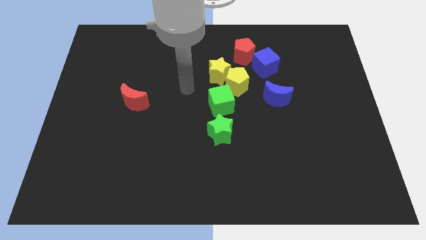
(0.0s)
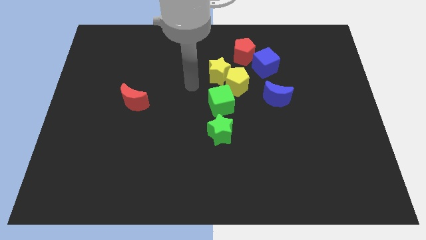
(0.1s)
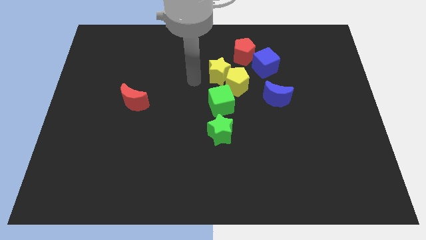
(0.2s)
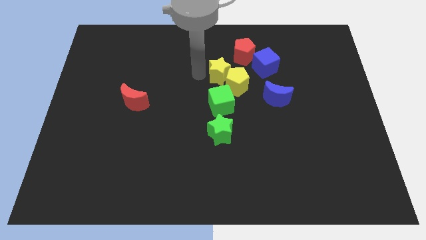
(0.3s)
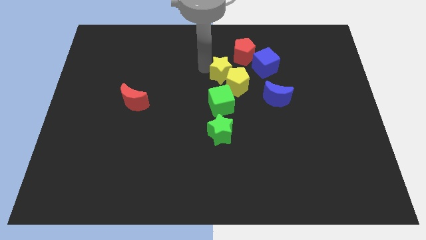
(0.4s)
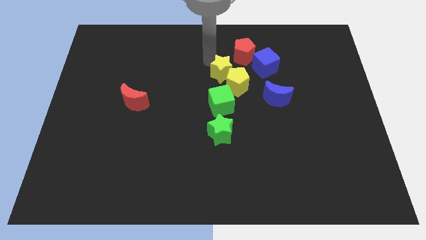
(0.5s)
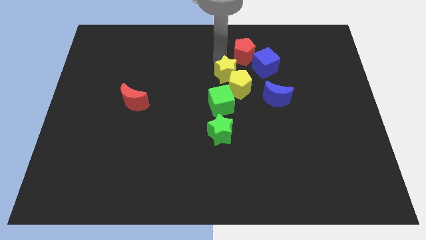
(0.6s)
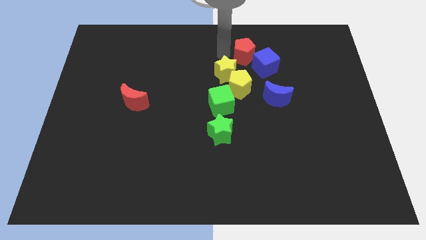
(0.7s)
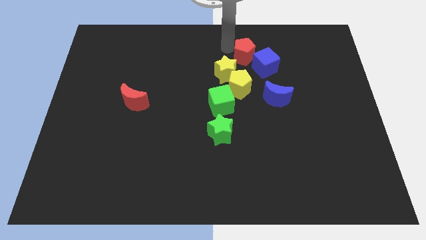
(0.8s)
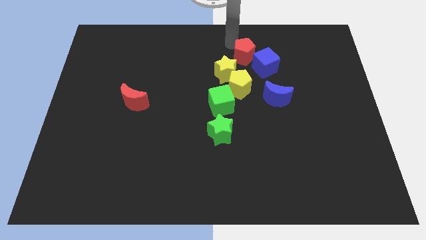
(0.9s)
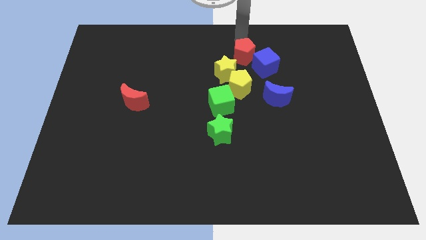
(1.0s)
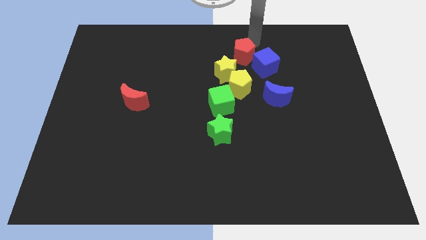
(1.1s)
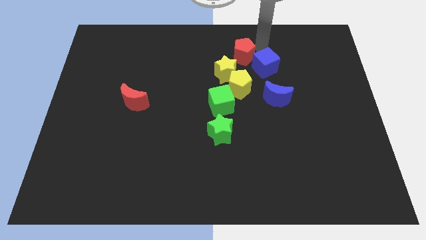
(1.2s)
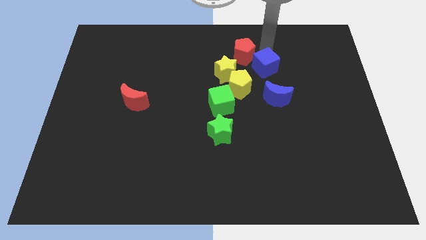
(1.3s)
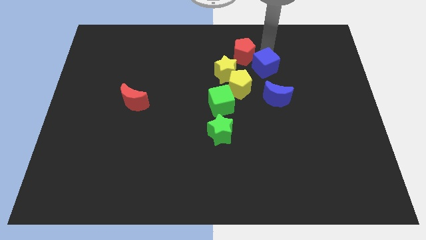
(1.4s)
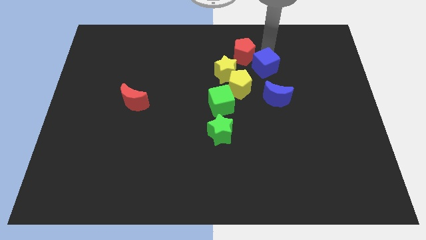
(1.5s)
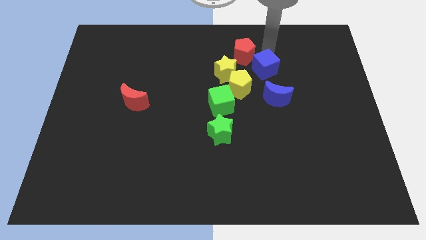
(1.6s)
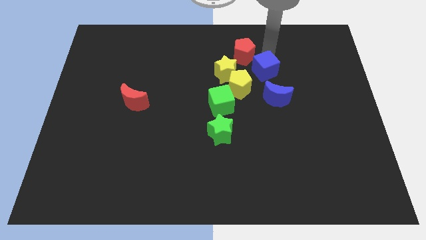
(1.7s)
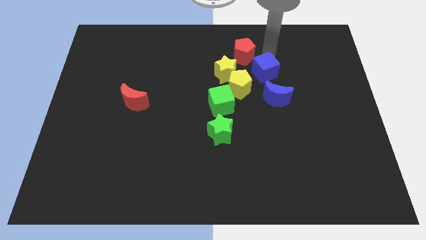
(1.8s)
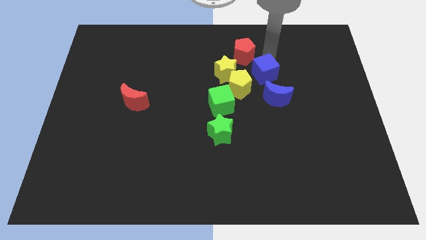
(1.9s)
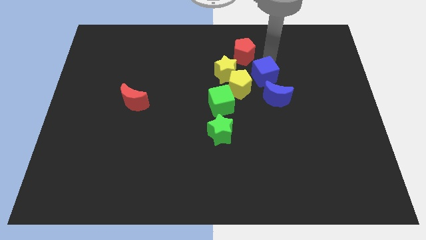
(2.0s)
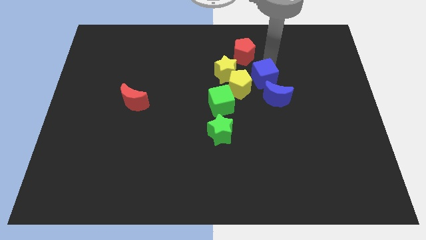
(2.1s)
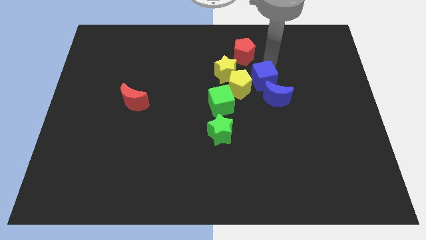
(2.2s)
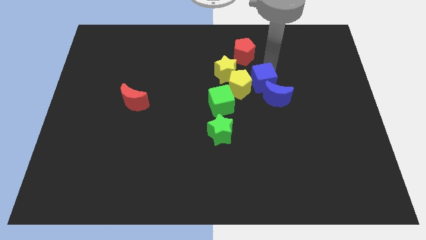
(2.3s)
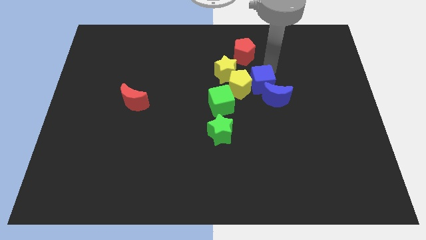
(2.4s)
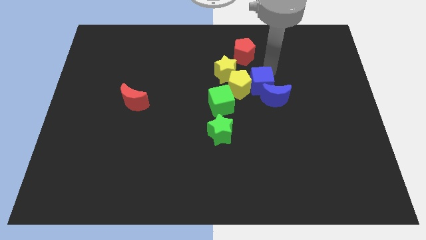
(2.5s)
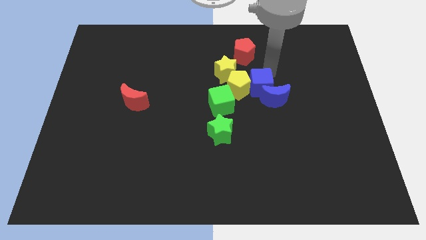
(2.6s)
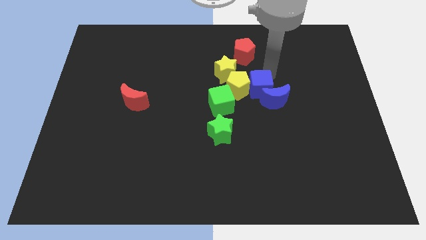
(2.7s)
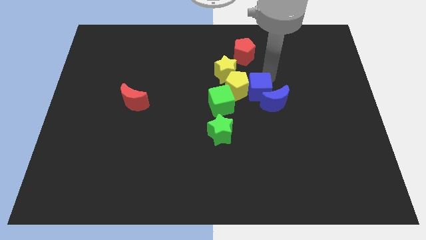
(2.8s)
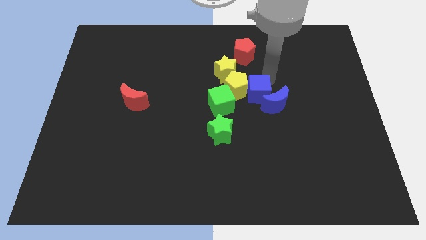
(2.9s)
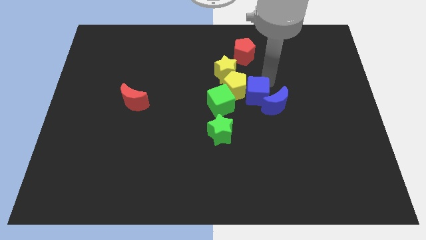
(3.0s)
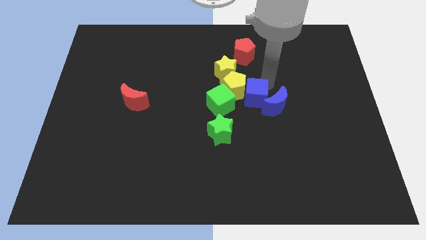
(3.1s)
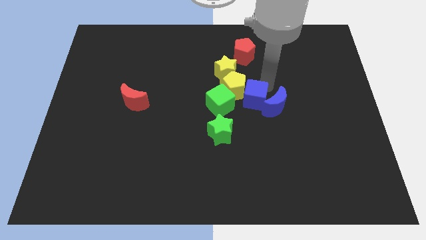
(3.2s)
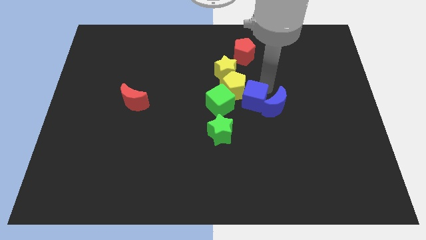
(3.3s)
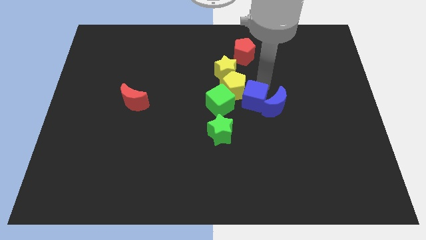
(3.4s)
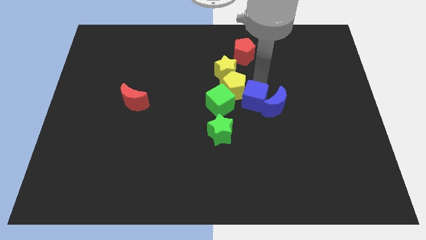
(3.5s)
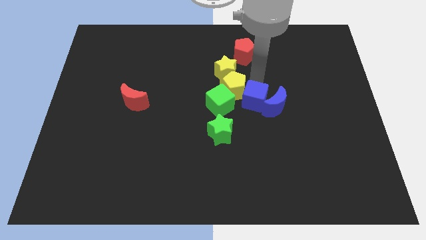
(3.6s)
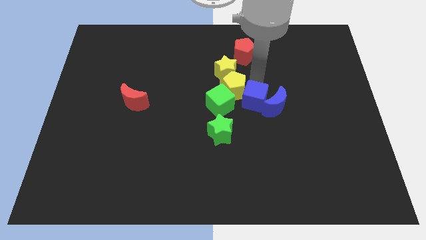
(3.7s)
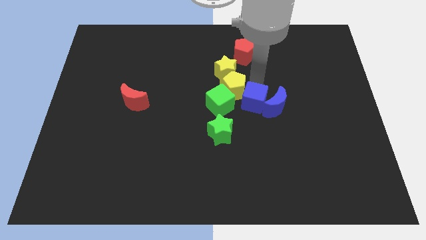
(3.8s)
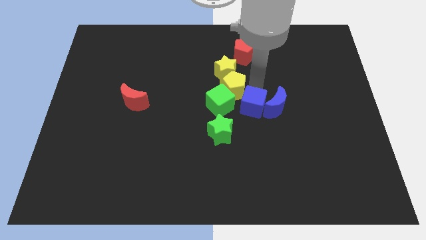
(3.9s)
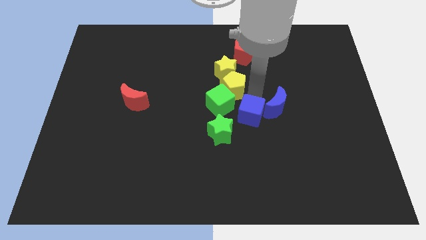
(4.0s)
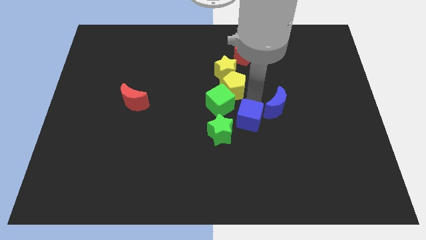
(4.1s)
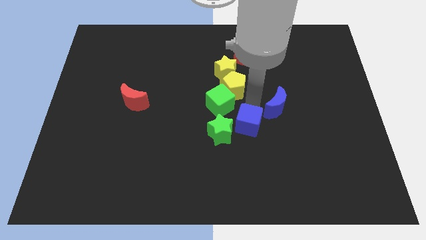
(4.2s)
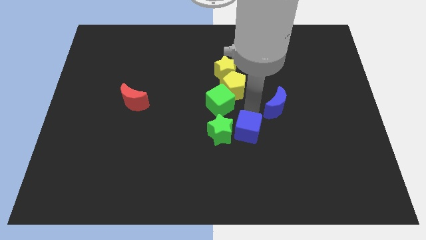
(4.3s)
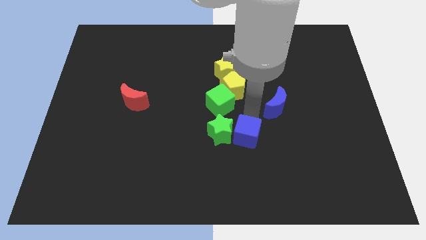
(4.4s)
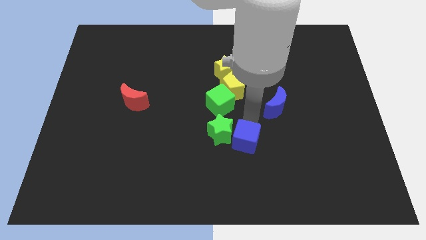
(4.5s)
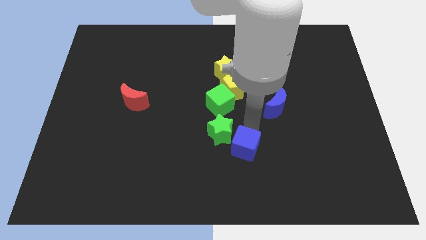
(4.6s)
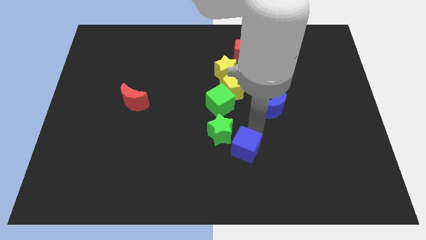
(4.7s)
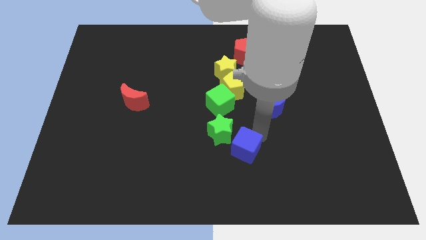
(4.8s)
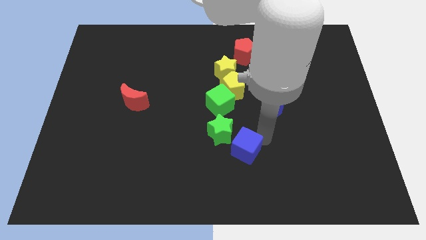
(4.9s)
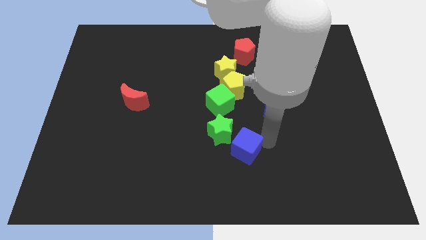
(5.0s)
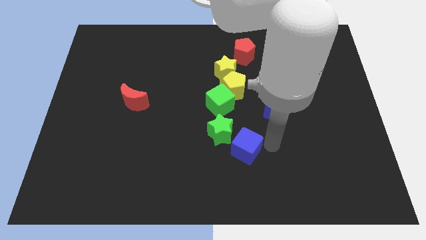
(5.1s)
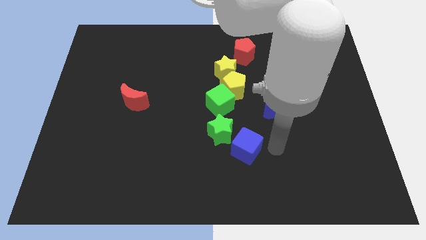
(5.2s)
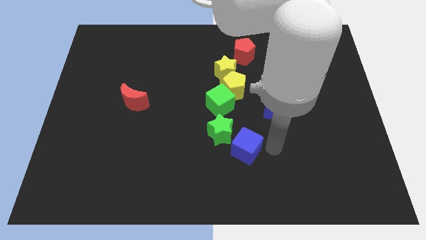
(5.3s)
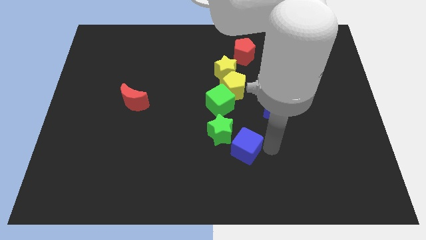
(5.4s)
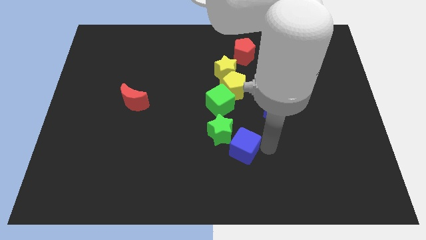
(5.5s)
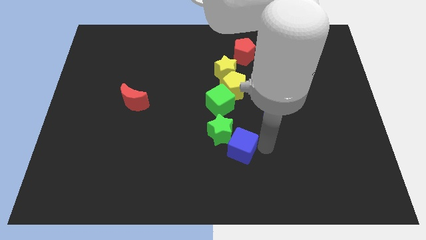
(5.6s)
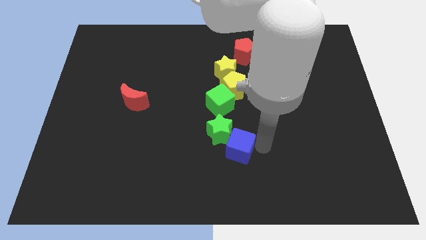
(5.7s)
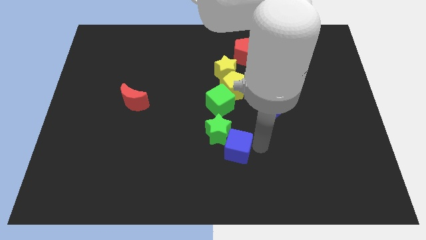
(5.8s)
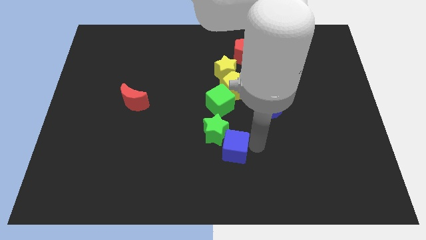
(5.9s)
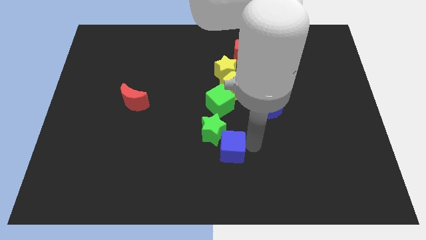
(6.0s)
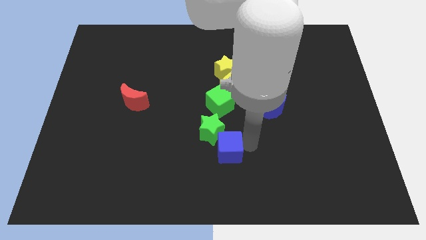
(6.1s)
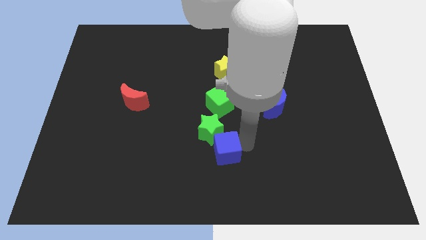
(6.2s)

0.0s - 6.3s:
move the blue cube down and then left

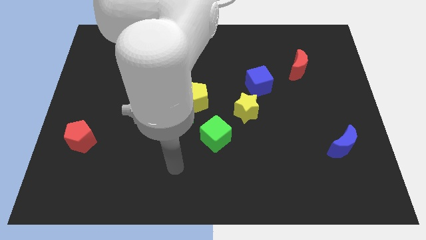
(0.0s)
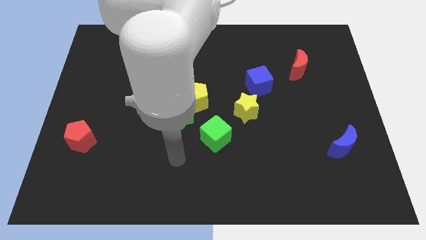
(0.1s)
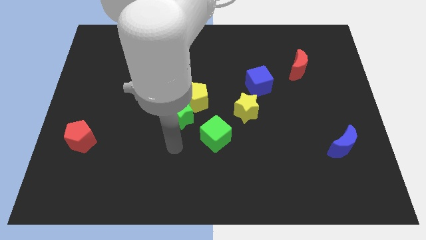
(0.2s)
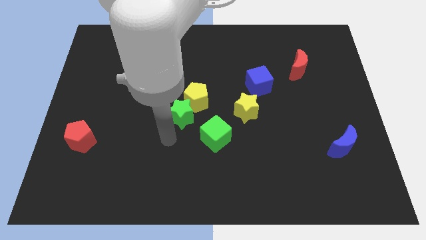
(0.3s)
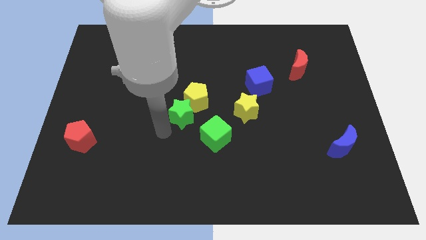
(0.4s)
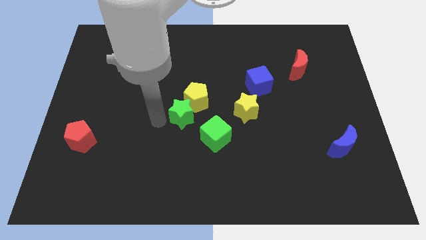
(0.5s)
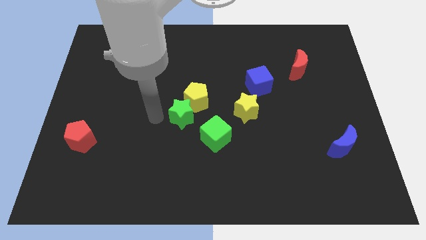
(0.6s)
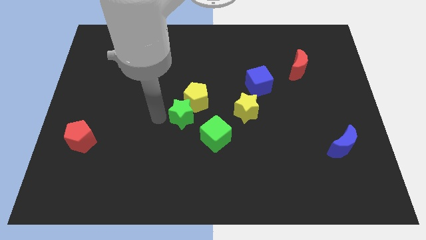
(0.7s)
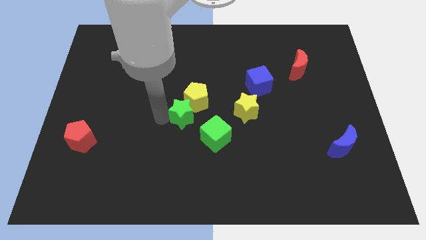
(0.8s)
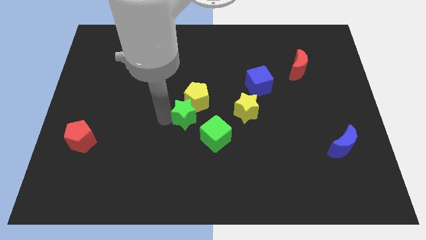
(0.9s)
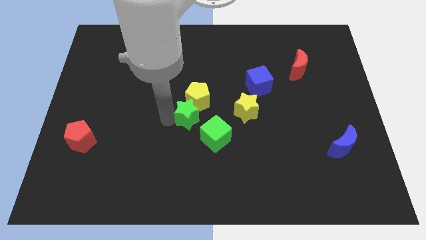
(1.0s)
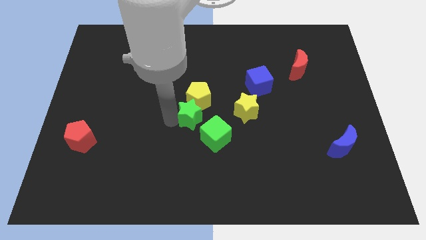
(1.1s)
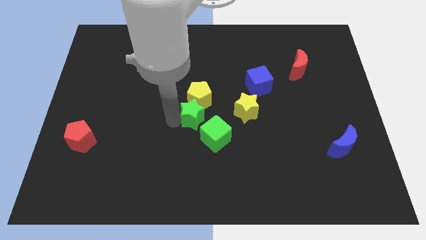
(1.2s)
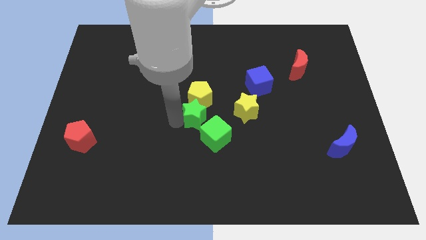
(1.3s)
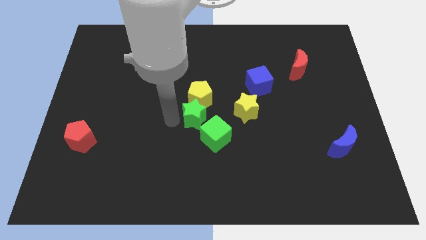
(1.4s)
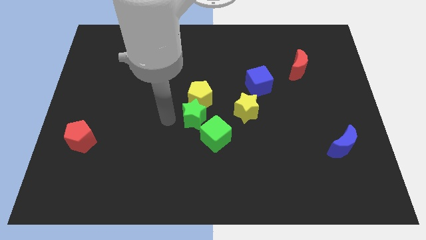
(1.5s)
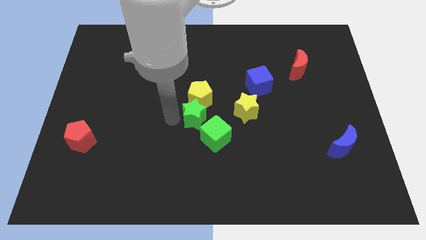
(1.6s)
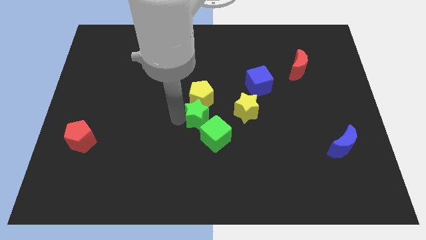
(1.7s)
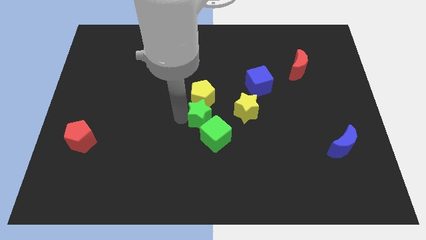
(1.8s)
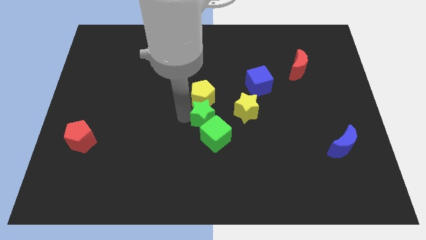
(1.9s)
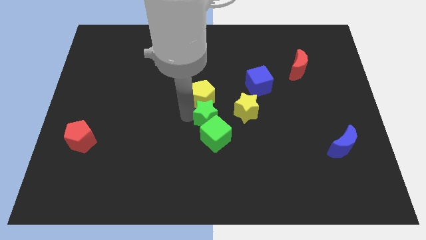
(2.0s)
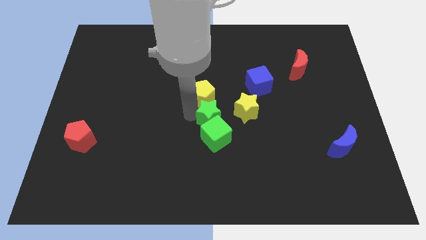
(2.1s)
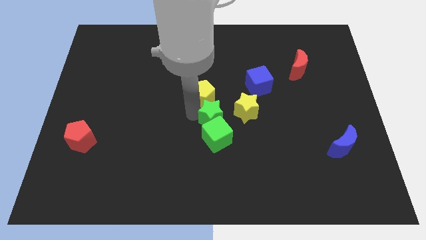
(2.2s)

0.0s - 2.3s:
slightly slide the green star to the right
